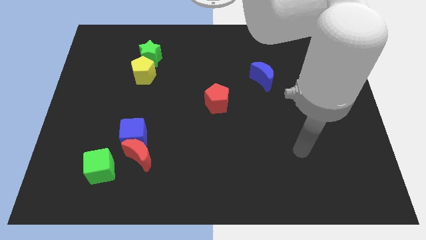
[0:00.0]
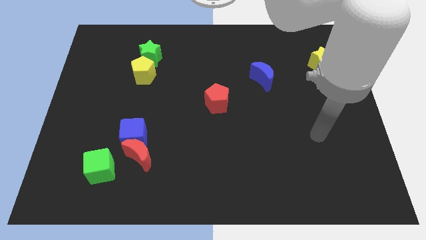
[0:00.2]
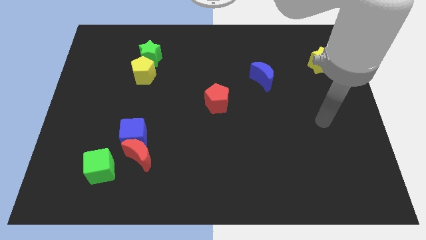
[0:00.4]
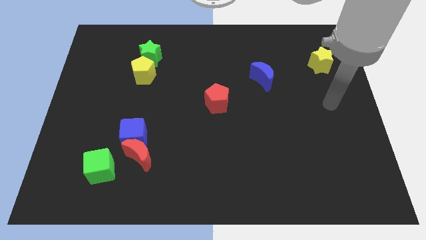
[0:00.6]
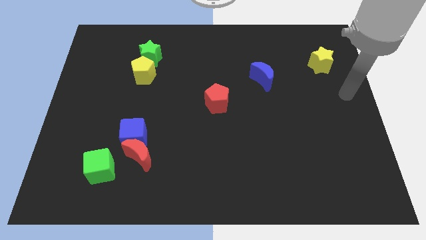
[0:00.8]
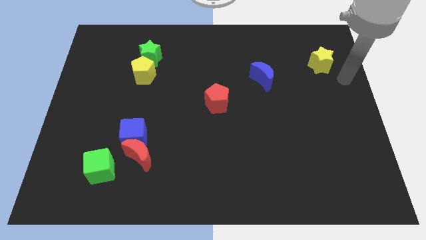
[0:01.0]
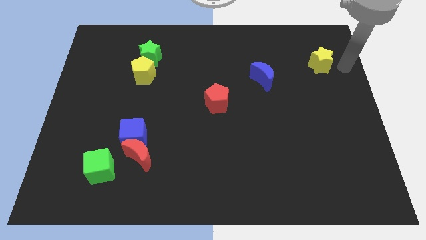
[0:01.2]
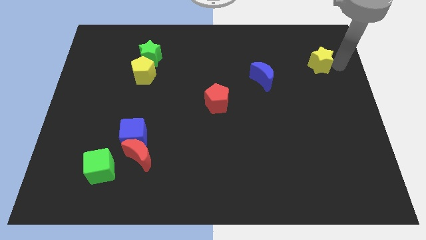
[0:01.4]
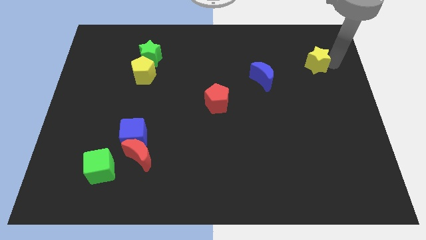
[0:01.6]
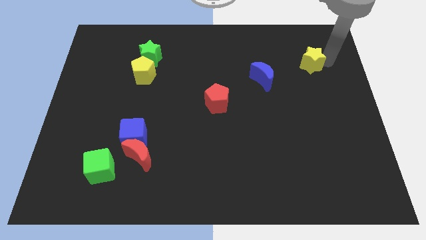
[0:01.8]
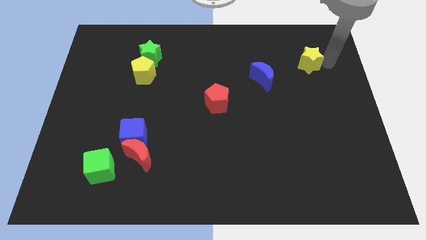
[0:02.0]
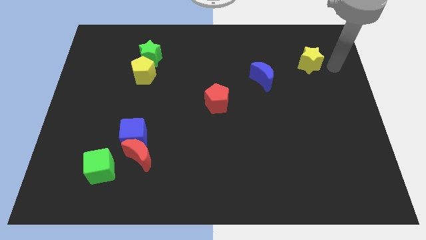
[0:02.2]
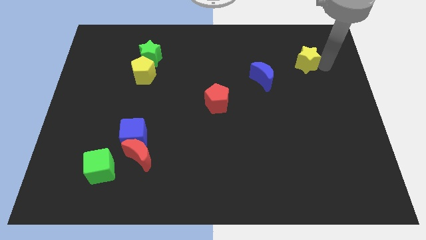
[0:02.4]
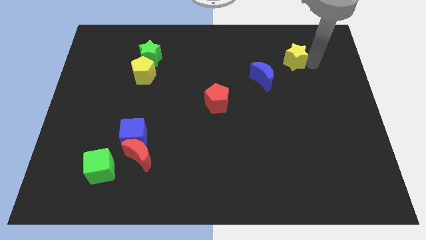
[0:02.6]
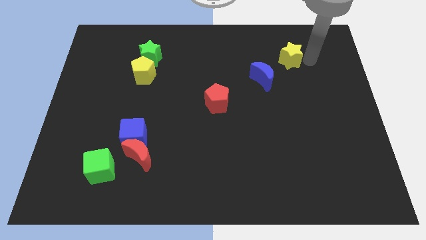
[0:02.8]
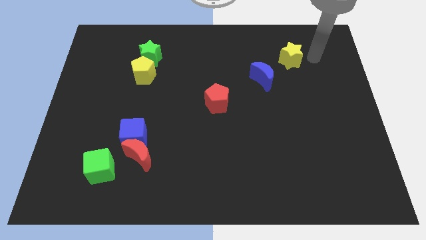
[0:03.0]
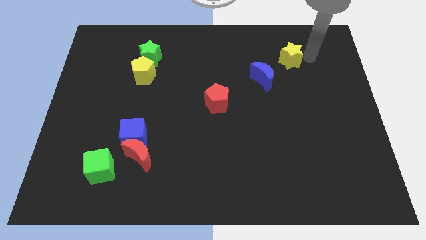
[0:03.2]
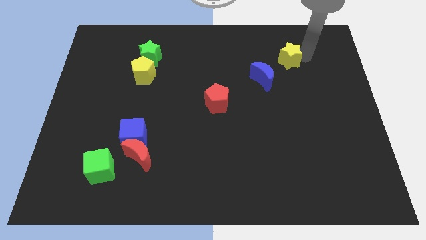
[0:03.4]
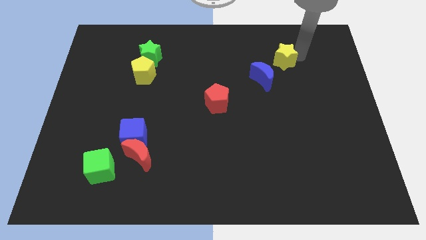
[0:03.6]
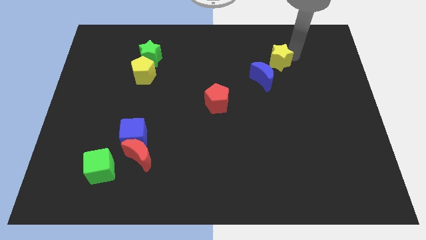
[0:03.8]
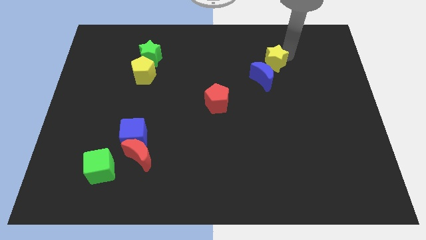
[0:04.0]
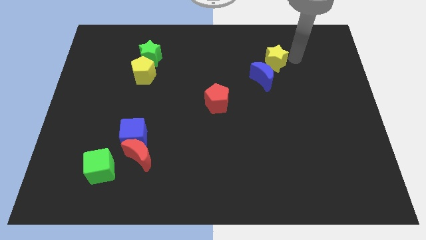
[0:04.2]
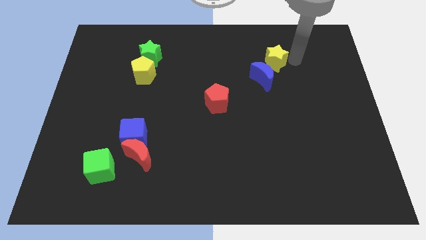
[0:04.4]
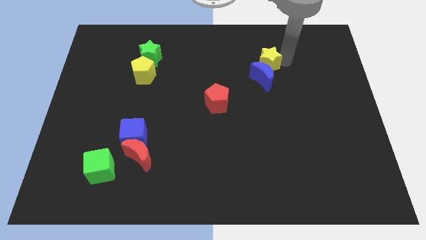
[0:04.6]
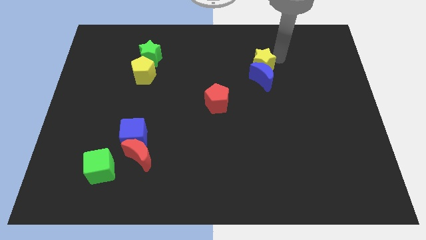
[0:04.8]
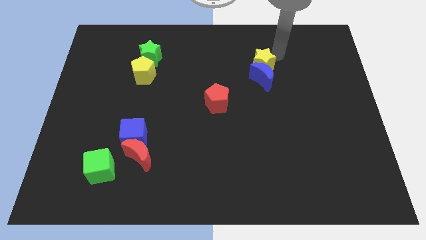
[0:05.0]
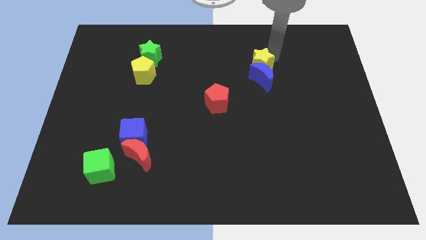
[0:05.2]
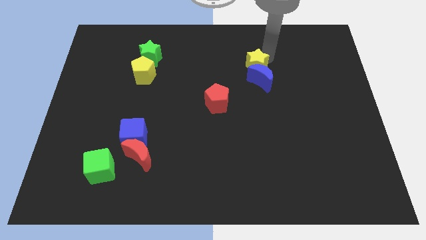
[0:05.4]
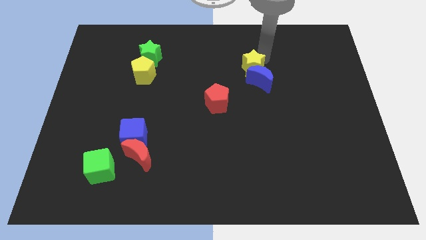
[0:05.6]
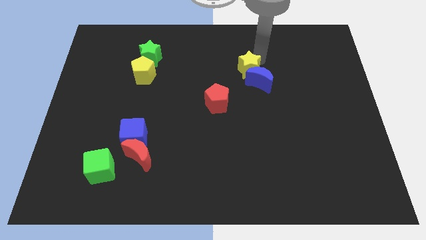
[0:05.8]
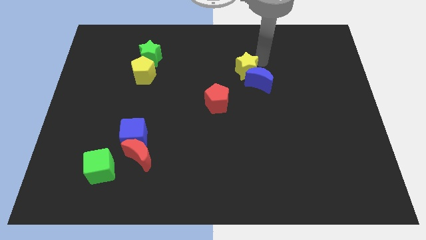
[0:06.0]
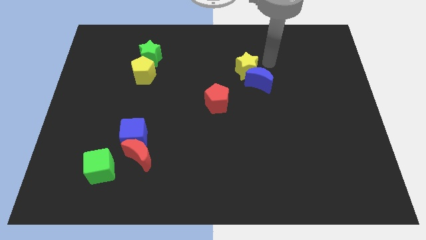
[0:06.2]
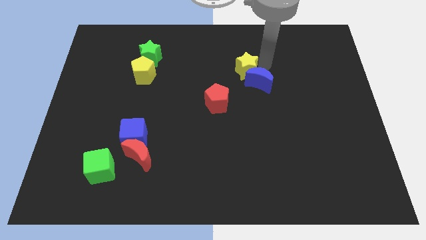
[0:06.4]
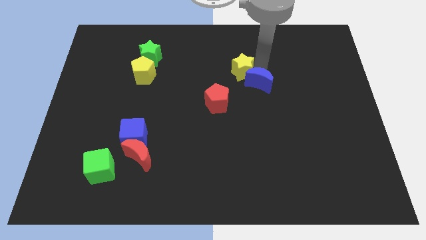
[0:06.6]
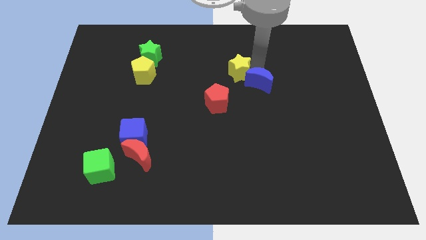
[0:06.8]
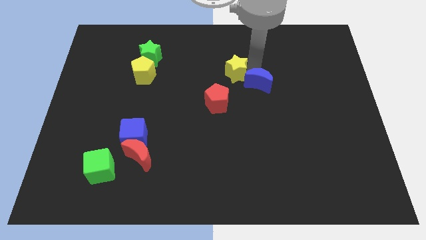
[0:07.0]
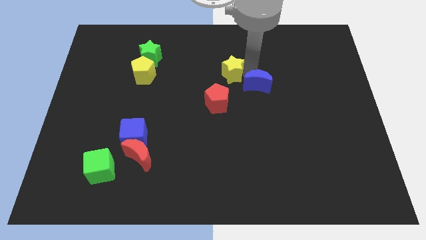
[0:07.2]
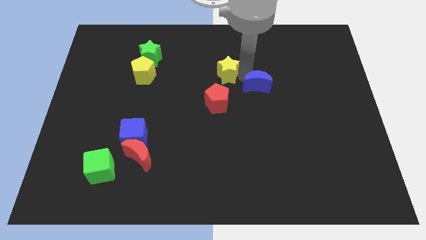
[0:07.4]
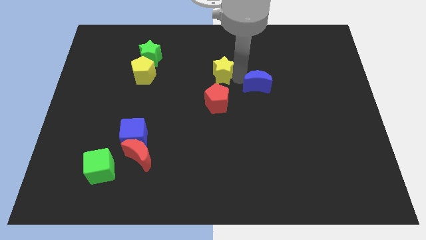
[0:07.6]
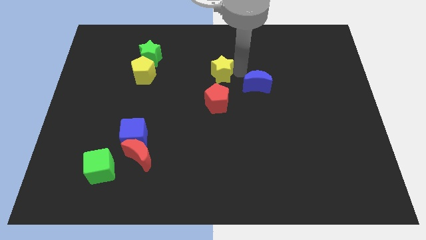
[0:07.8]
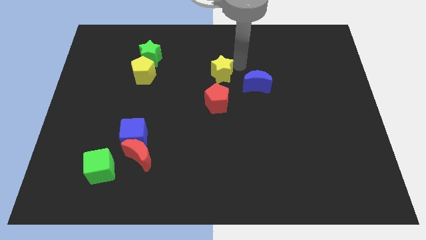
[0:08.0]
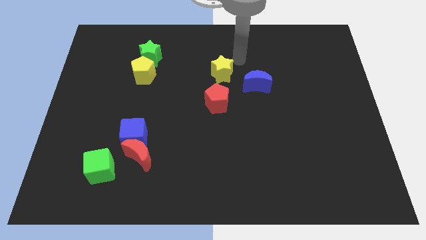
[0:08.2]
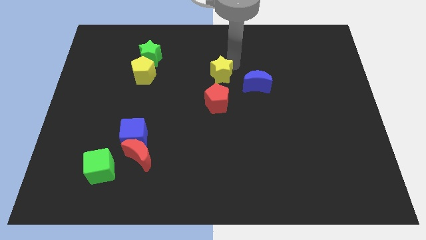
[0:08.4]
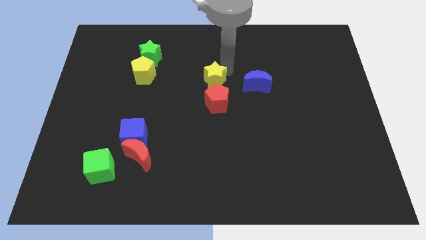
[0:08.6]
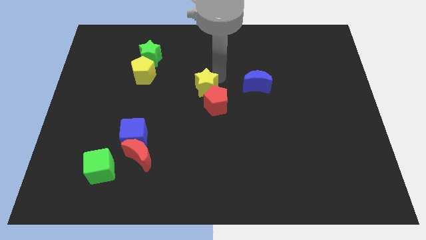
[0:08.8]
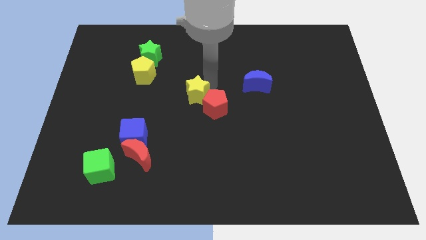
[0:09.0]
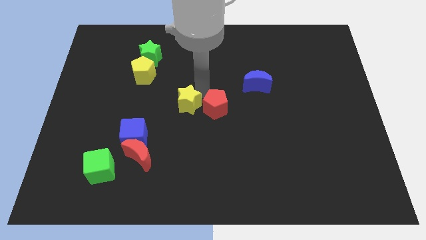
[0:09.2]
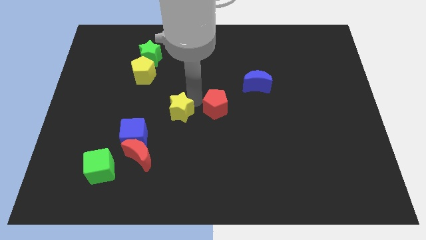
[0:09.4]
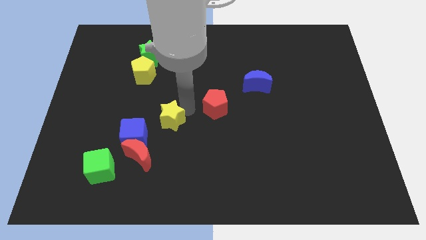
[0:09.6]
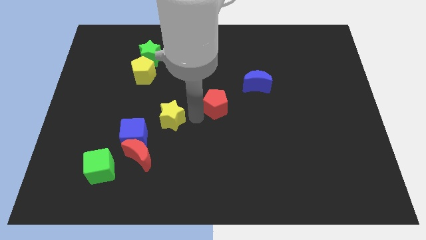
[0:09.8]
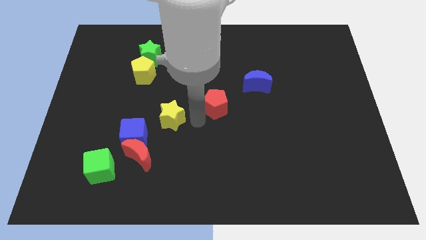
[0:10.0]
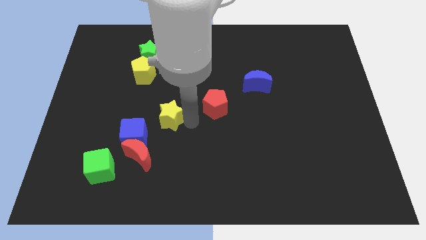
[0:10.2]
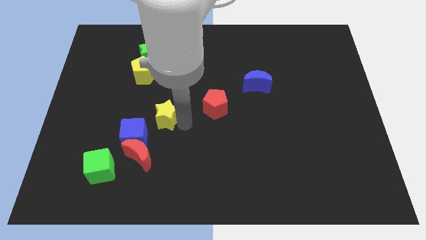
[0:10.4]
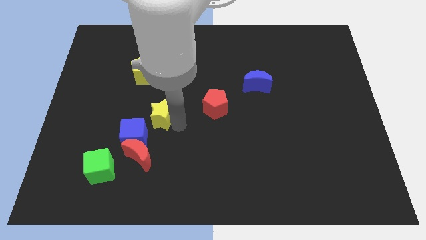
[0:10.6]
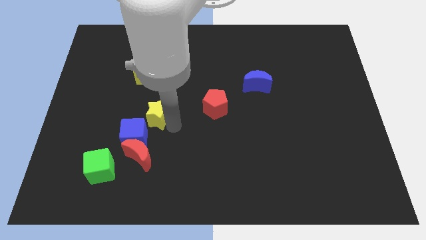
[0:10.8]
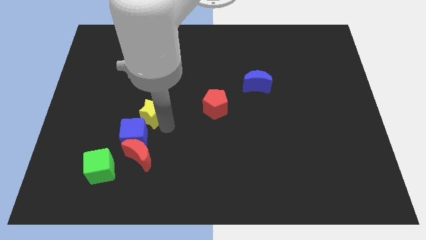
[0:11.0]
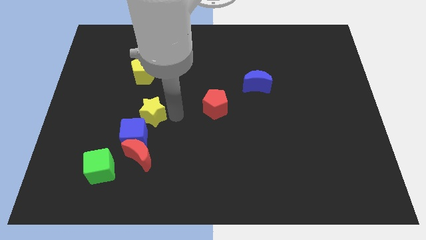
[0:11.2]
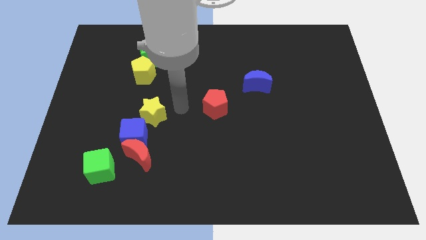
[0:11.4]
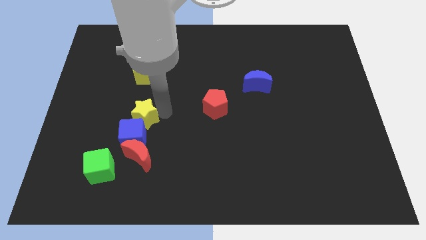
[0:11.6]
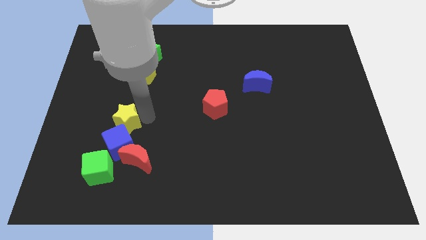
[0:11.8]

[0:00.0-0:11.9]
move the yellow star to the top side of the green cube

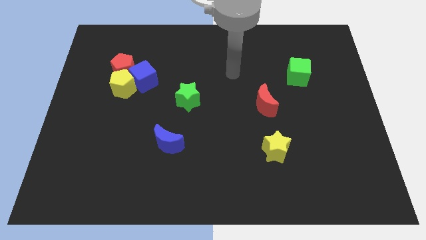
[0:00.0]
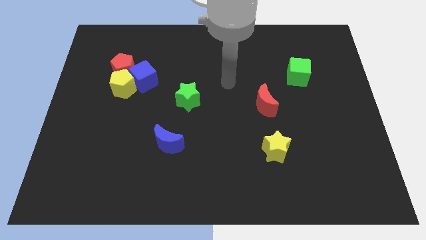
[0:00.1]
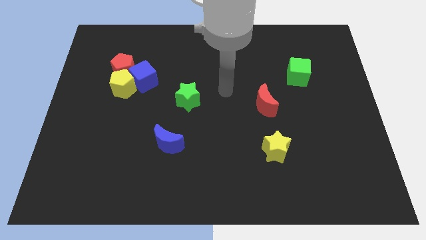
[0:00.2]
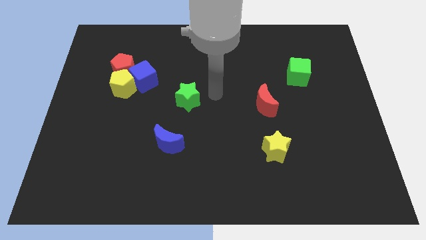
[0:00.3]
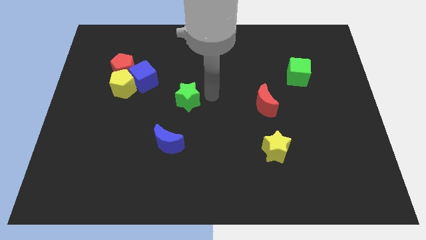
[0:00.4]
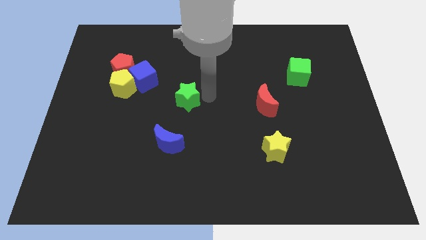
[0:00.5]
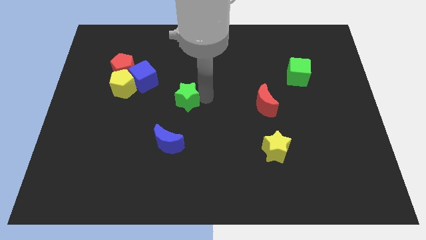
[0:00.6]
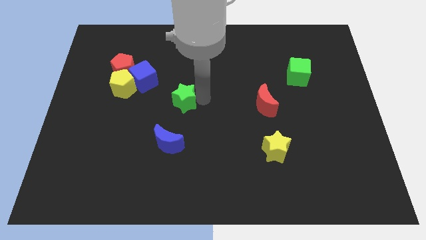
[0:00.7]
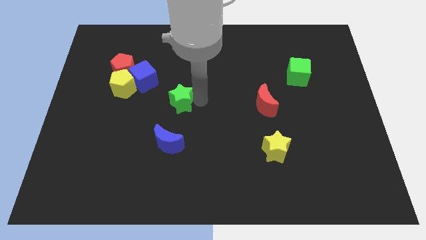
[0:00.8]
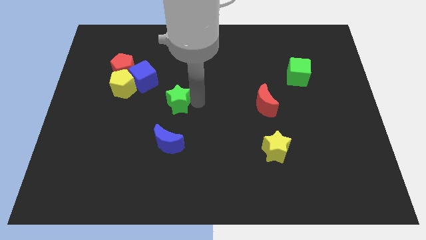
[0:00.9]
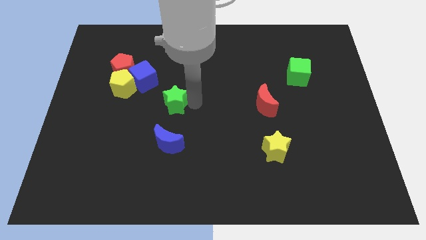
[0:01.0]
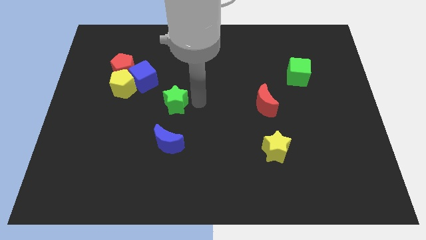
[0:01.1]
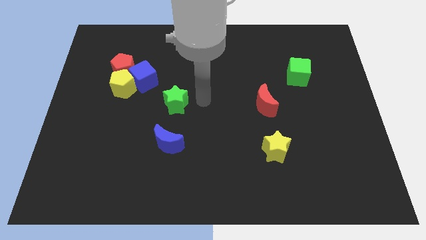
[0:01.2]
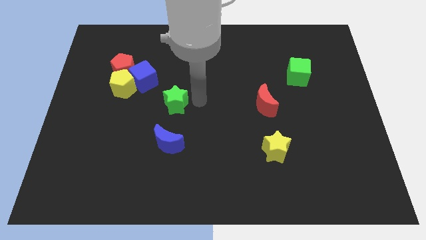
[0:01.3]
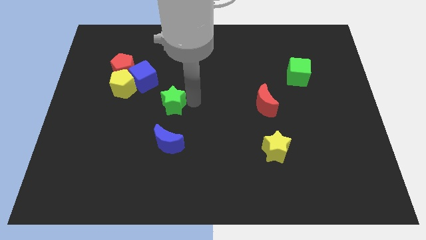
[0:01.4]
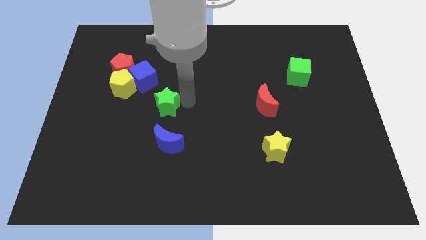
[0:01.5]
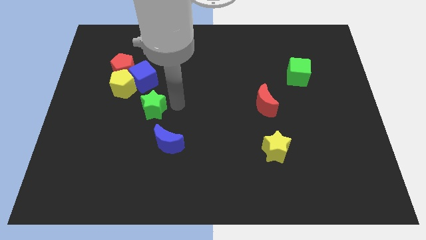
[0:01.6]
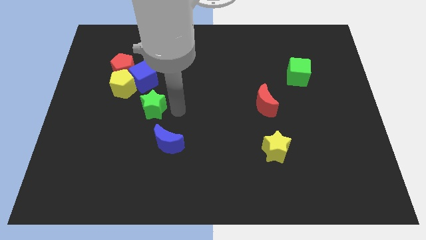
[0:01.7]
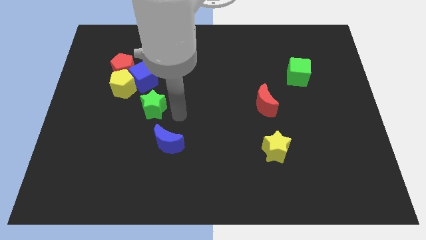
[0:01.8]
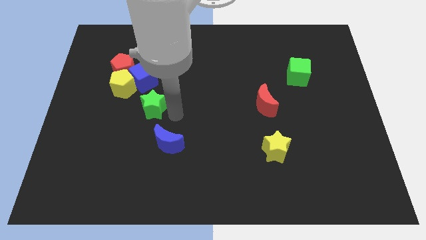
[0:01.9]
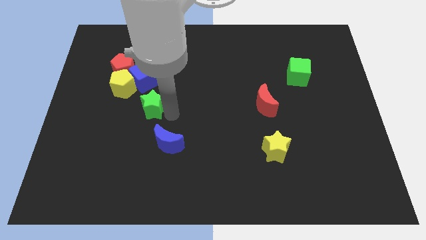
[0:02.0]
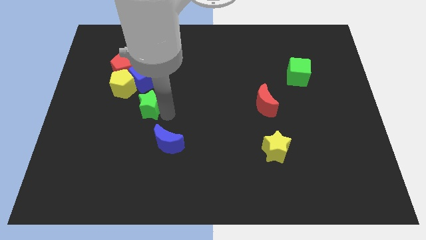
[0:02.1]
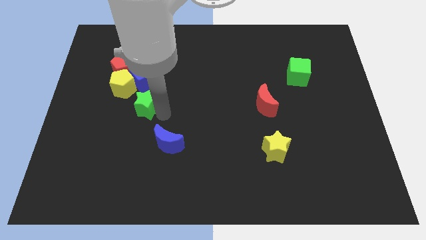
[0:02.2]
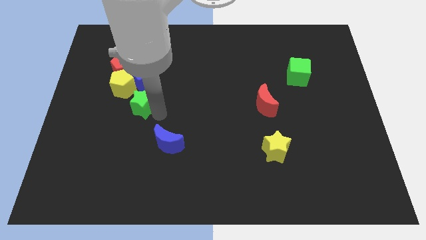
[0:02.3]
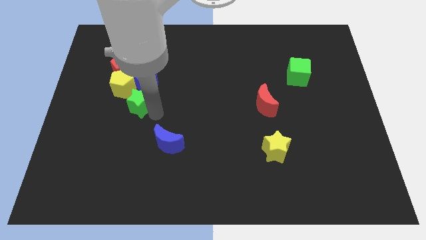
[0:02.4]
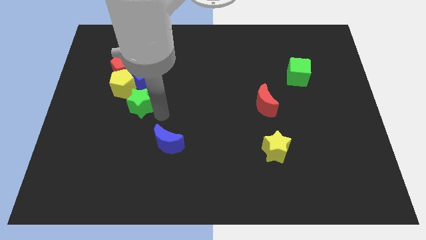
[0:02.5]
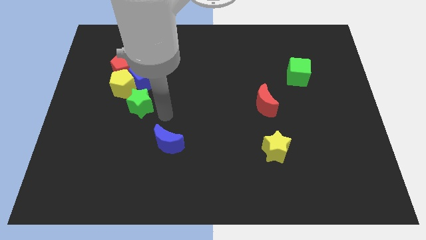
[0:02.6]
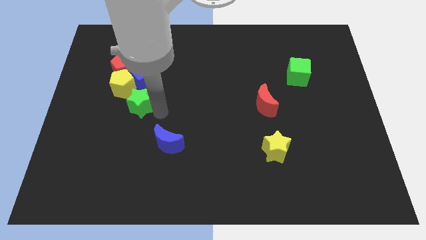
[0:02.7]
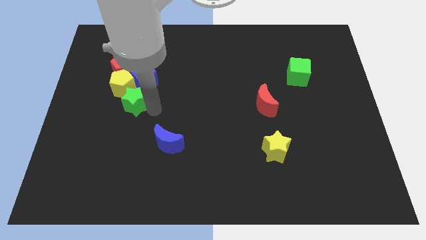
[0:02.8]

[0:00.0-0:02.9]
push the green star diagonally down and to the left of the blue cube
